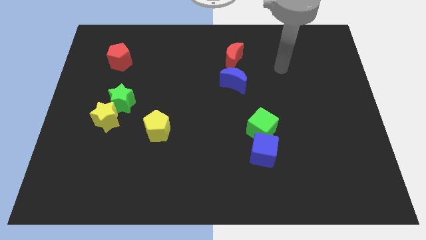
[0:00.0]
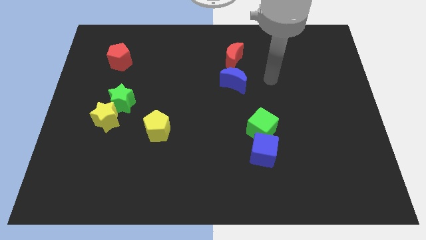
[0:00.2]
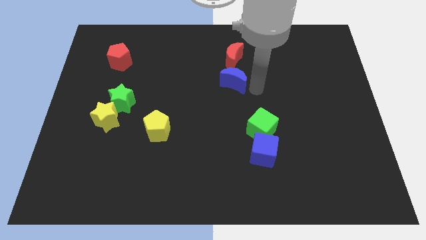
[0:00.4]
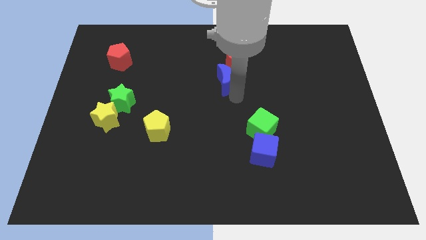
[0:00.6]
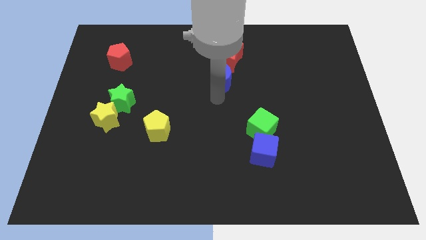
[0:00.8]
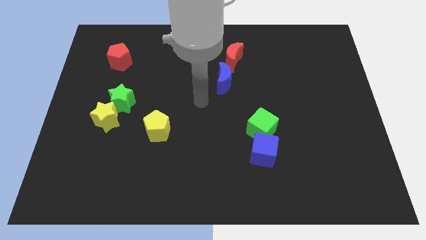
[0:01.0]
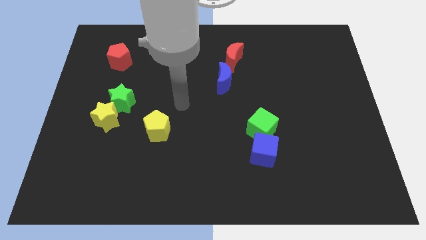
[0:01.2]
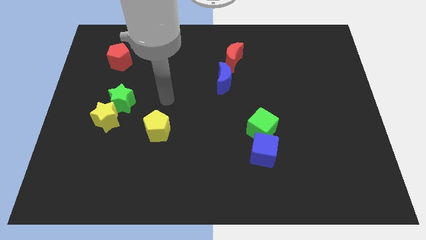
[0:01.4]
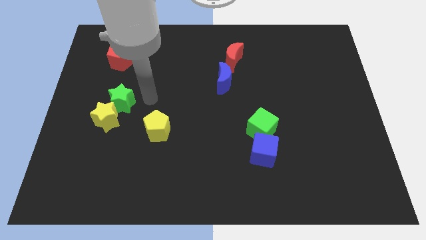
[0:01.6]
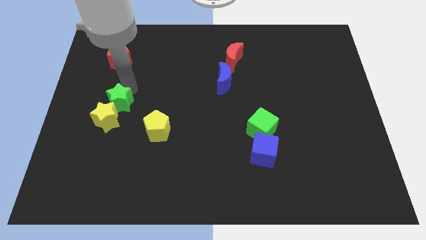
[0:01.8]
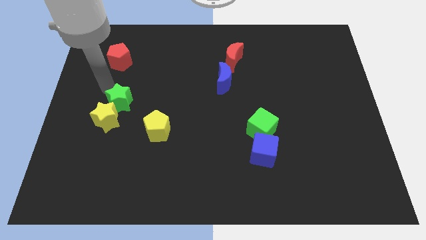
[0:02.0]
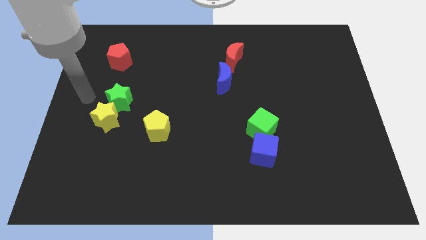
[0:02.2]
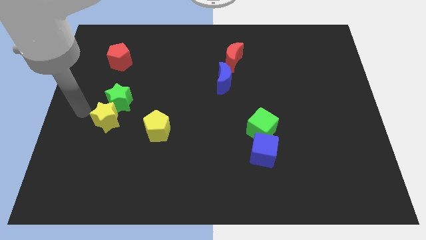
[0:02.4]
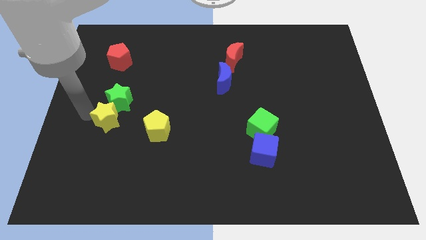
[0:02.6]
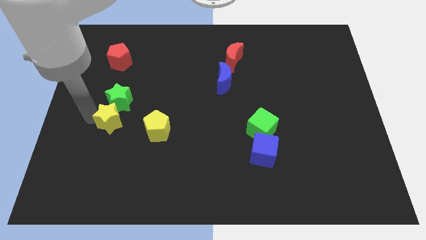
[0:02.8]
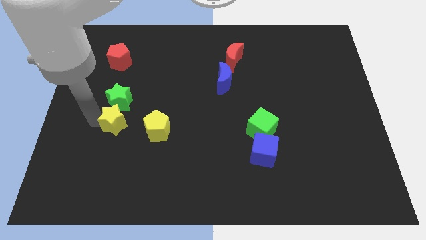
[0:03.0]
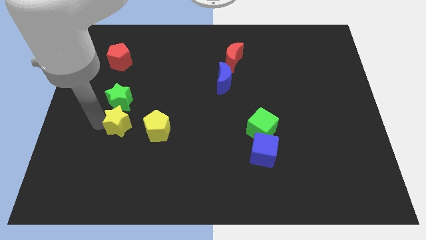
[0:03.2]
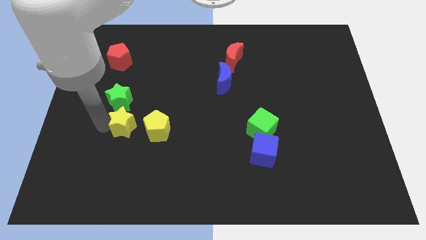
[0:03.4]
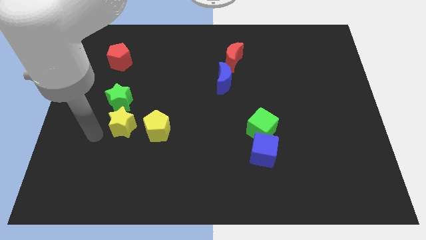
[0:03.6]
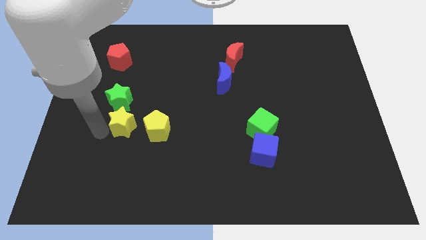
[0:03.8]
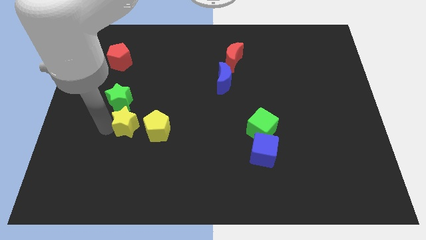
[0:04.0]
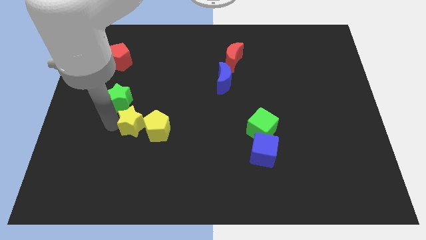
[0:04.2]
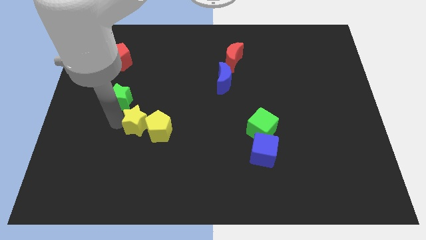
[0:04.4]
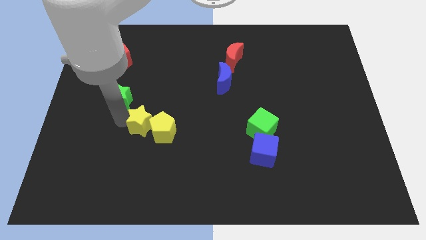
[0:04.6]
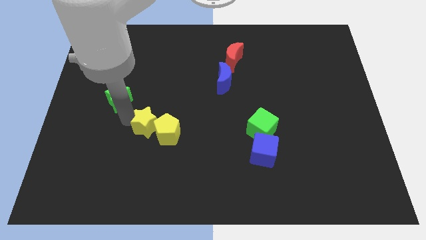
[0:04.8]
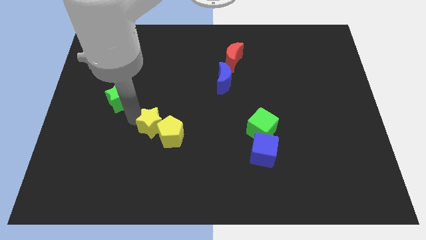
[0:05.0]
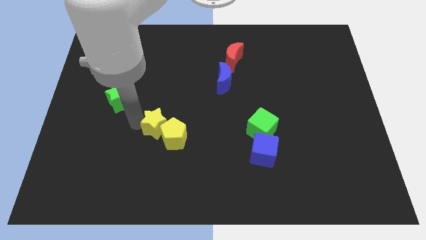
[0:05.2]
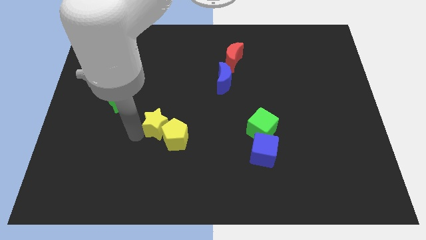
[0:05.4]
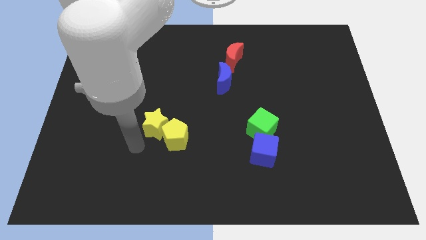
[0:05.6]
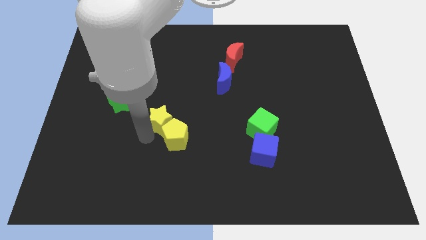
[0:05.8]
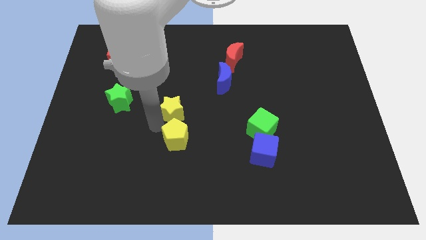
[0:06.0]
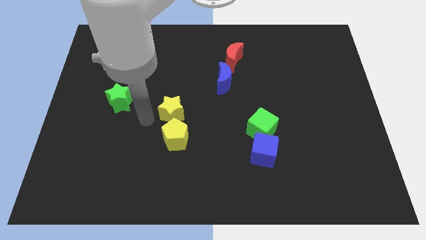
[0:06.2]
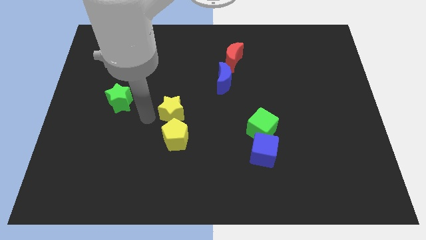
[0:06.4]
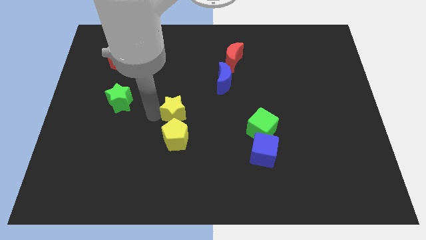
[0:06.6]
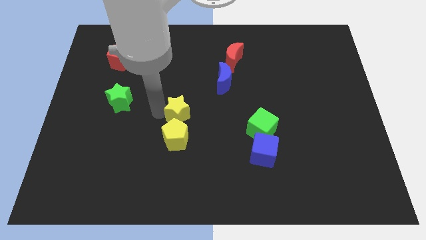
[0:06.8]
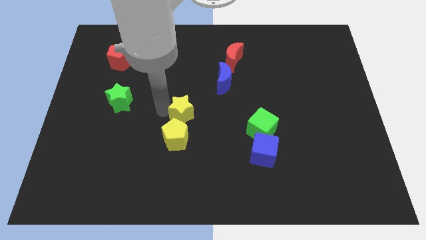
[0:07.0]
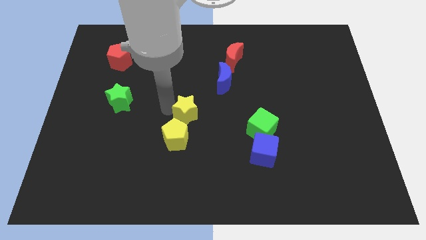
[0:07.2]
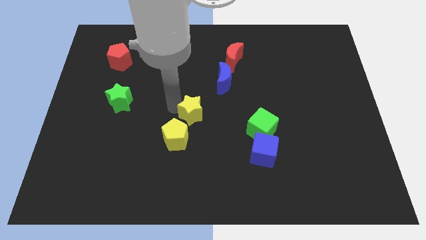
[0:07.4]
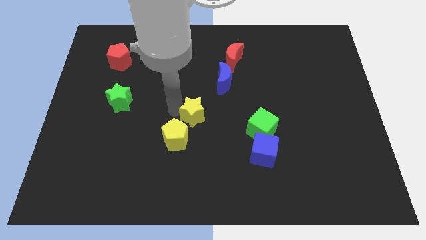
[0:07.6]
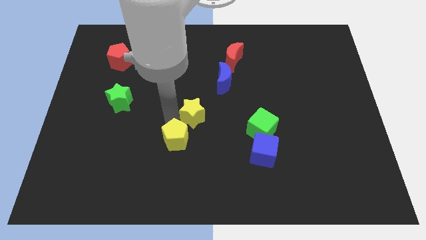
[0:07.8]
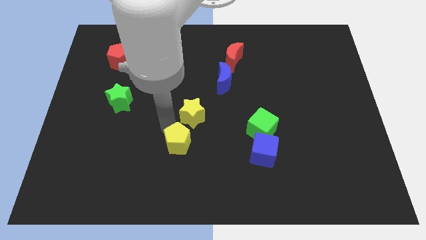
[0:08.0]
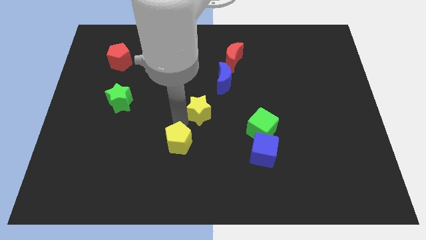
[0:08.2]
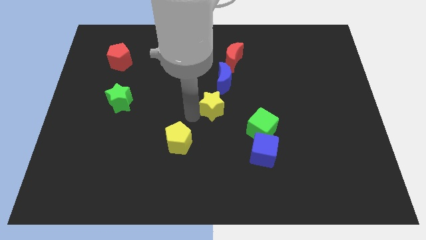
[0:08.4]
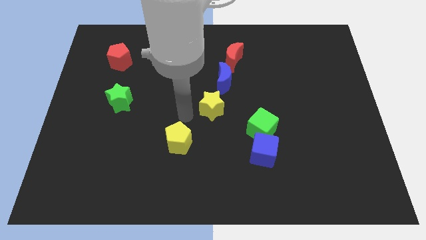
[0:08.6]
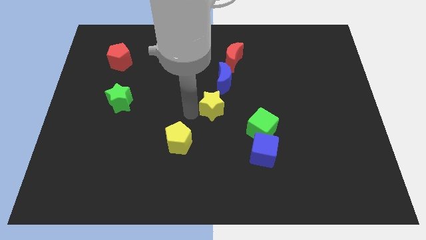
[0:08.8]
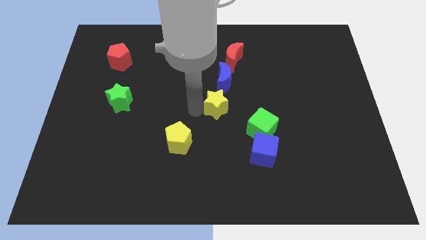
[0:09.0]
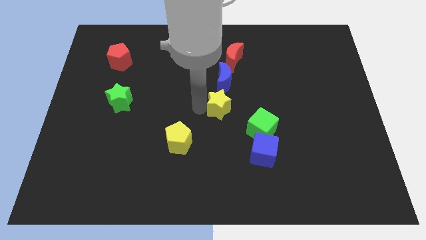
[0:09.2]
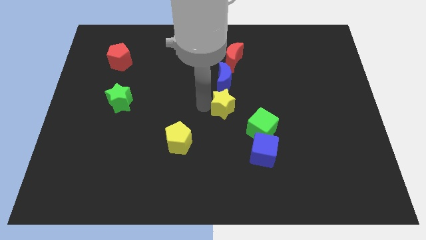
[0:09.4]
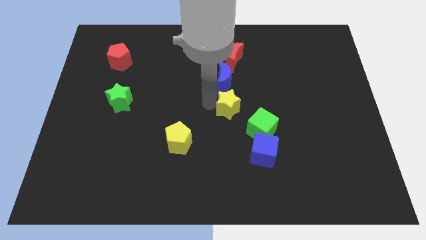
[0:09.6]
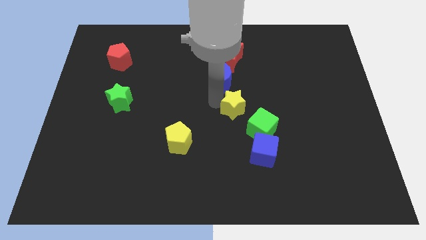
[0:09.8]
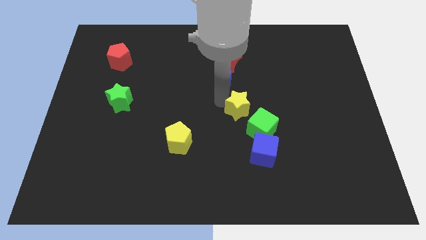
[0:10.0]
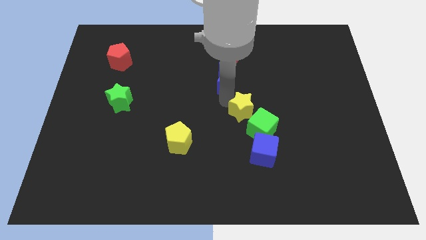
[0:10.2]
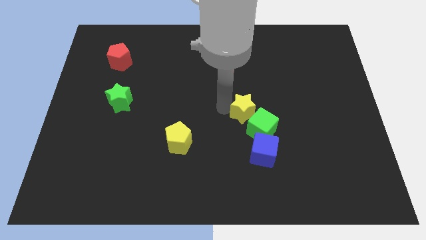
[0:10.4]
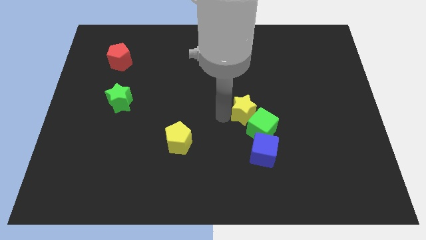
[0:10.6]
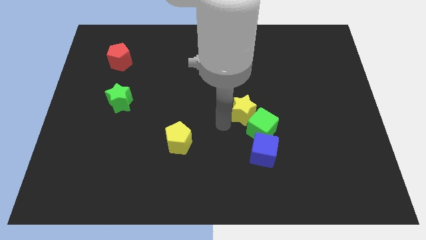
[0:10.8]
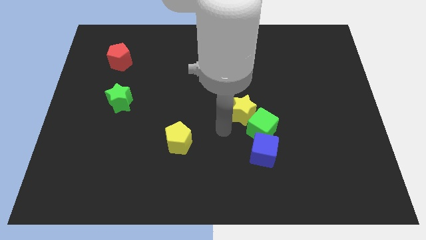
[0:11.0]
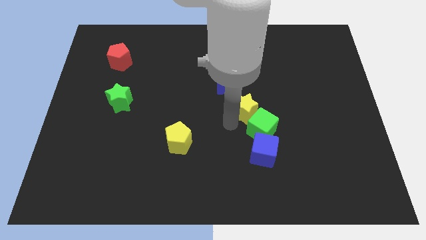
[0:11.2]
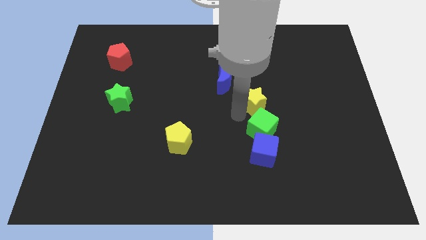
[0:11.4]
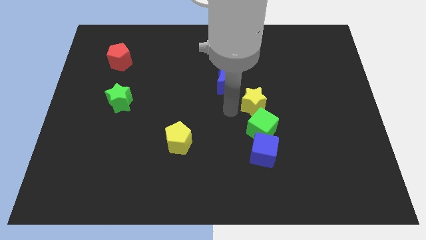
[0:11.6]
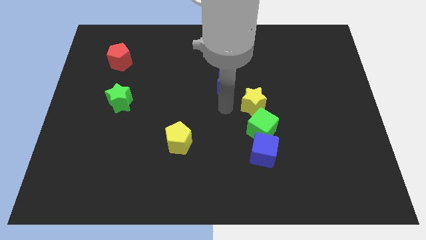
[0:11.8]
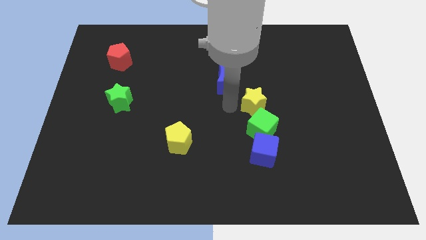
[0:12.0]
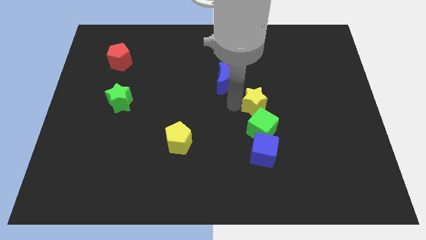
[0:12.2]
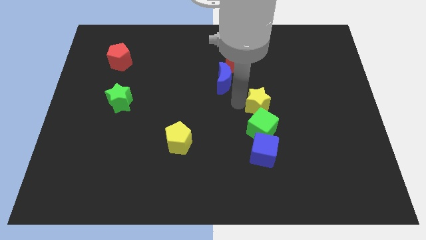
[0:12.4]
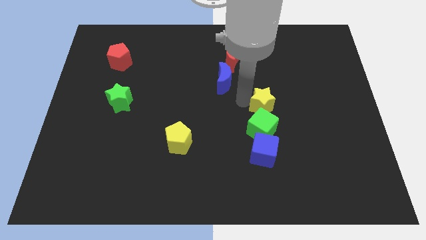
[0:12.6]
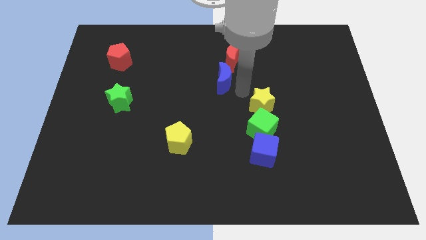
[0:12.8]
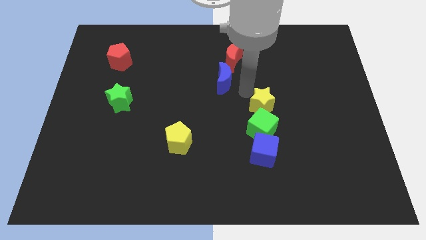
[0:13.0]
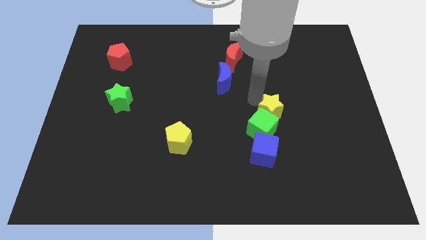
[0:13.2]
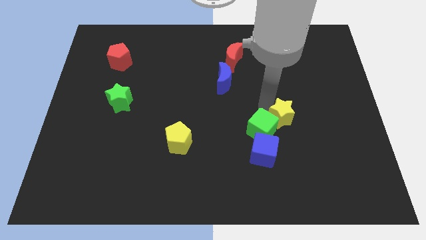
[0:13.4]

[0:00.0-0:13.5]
put the yellow star to the top right side of the blue cube
